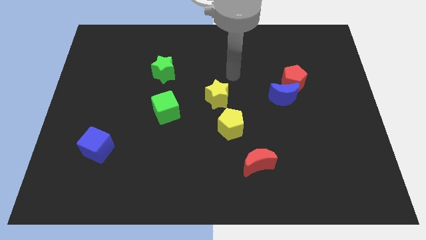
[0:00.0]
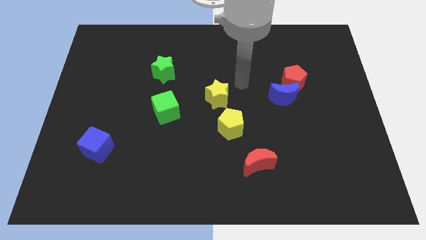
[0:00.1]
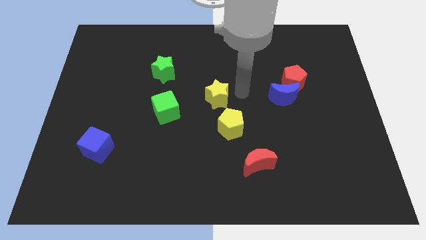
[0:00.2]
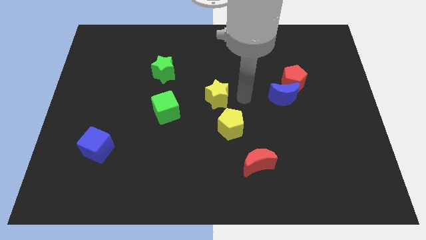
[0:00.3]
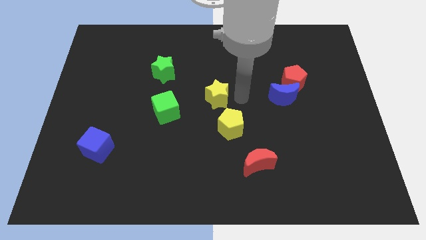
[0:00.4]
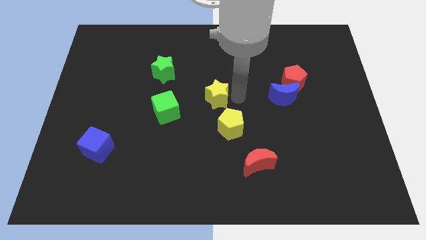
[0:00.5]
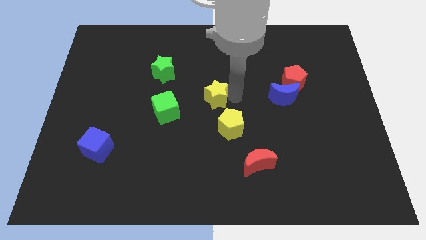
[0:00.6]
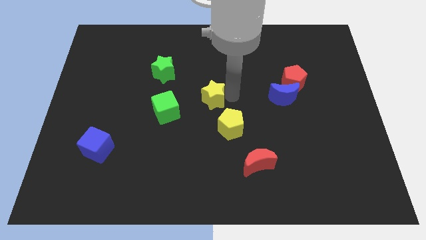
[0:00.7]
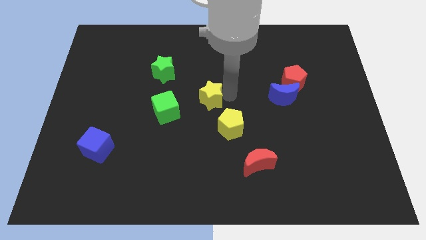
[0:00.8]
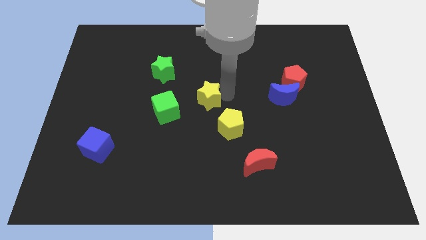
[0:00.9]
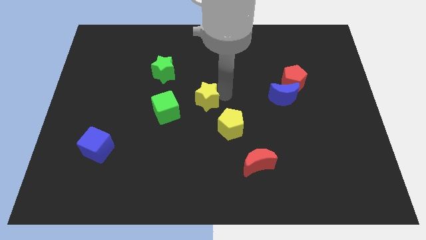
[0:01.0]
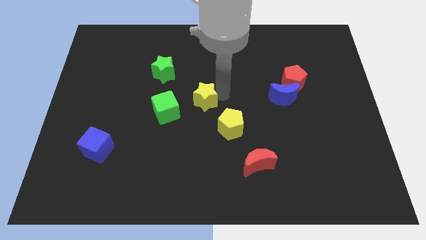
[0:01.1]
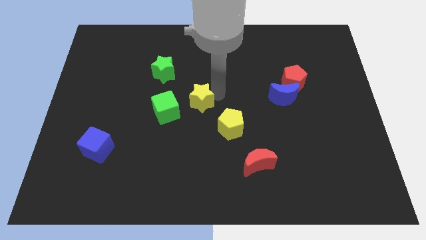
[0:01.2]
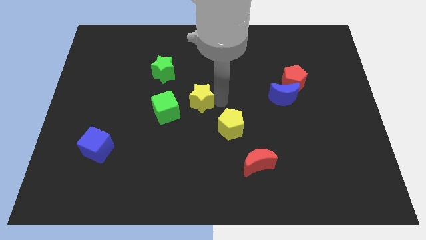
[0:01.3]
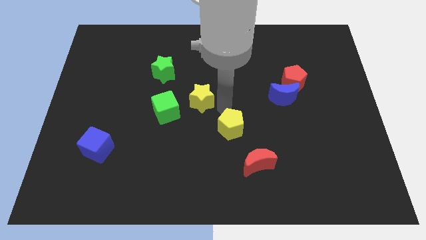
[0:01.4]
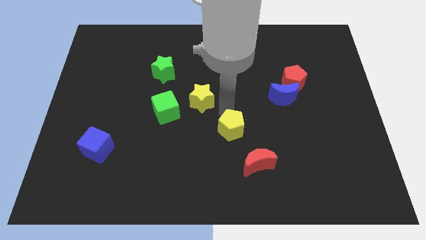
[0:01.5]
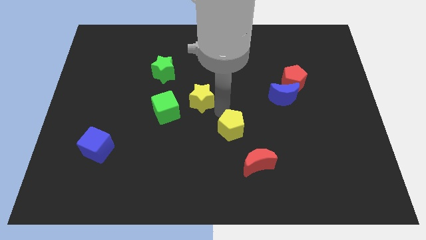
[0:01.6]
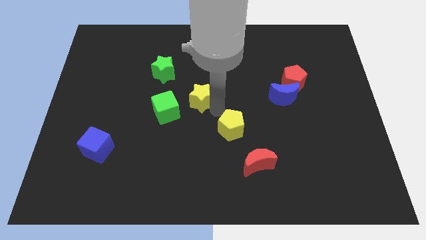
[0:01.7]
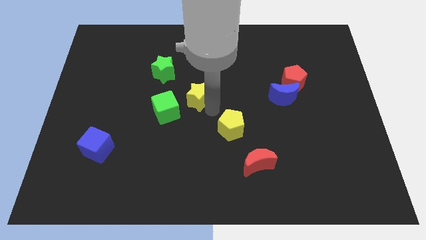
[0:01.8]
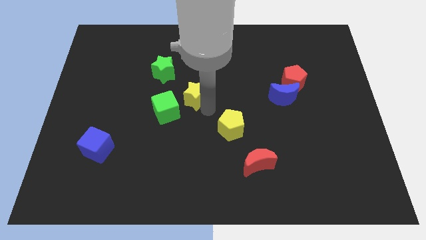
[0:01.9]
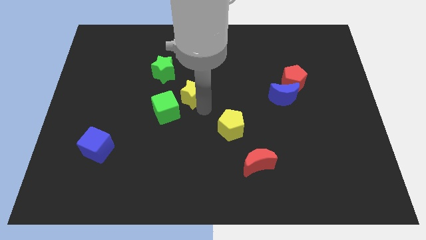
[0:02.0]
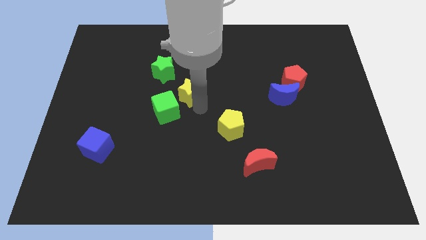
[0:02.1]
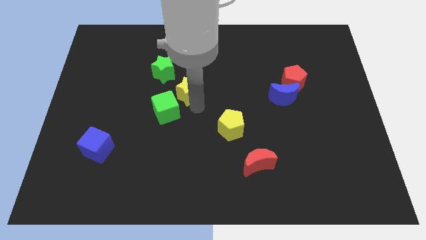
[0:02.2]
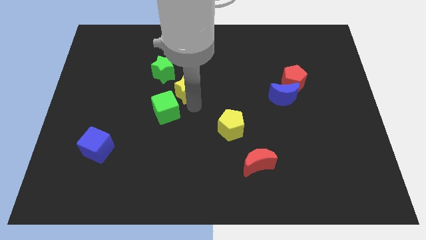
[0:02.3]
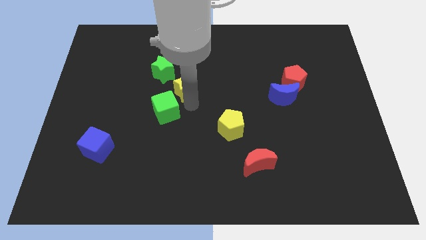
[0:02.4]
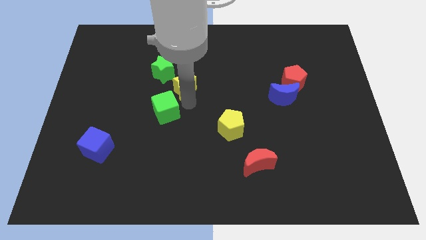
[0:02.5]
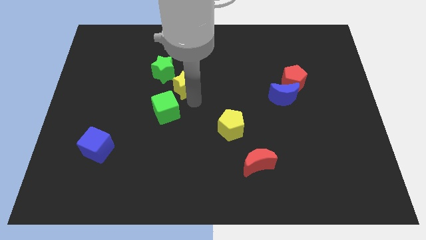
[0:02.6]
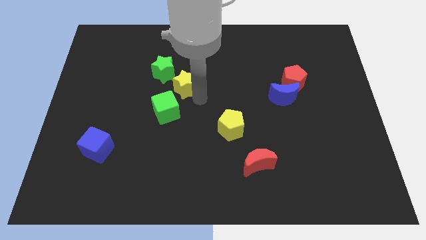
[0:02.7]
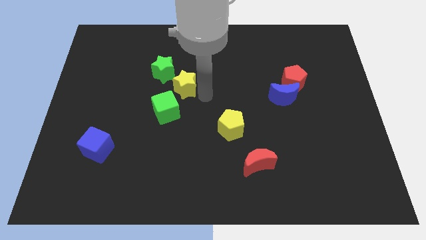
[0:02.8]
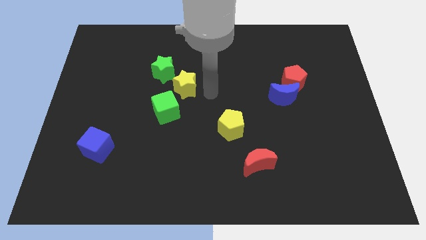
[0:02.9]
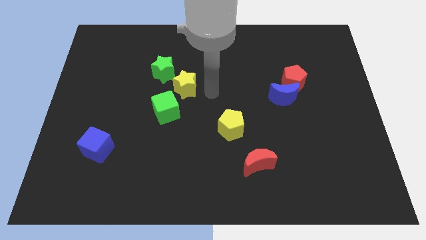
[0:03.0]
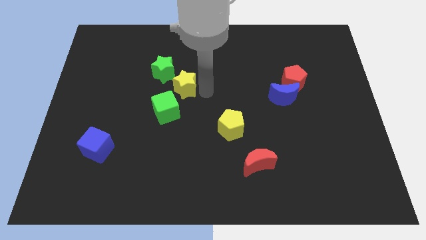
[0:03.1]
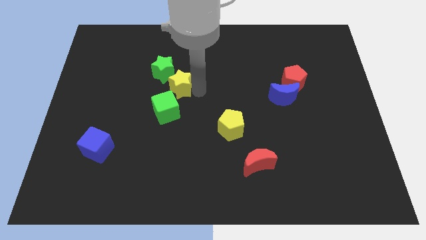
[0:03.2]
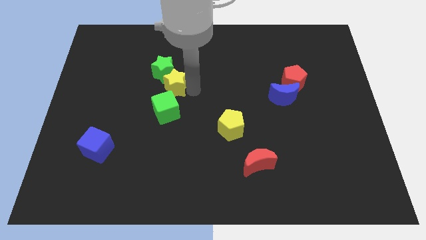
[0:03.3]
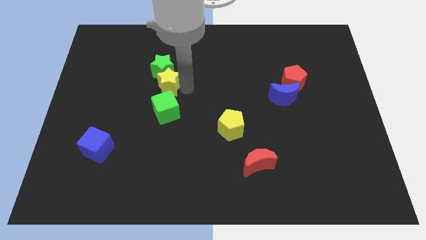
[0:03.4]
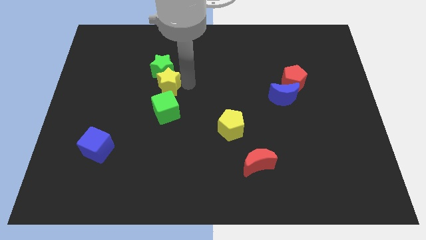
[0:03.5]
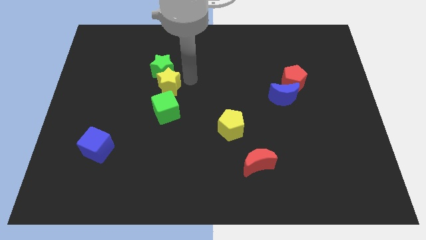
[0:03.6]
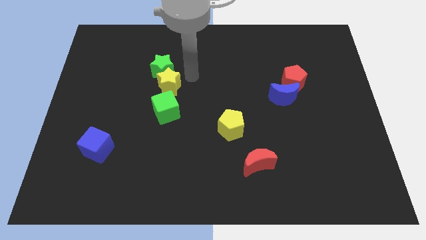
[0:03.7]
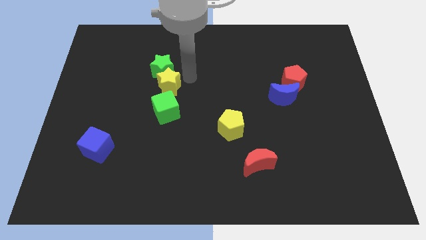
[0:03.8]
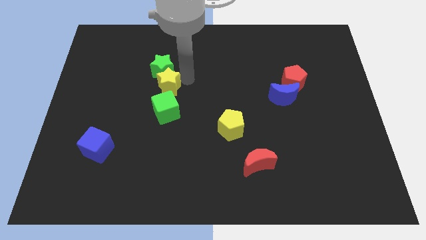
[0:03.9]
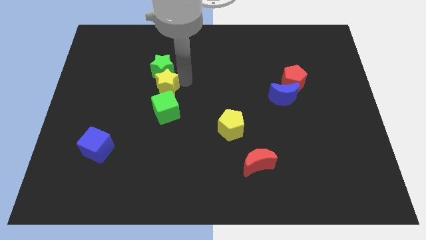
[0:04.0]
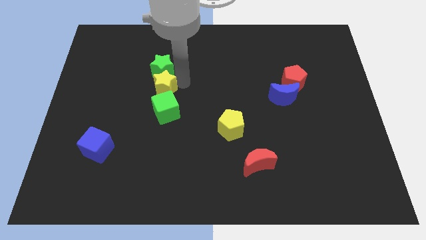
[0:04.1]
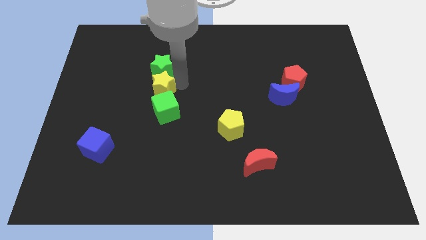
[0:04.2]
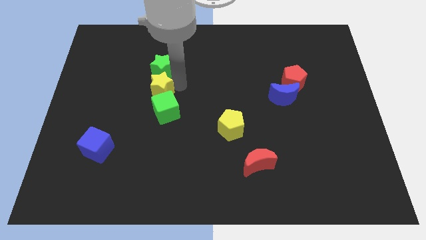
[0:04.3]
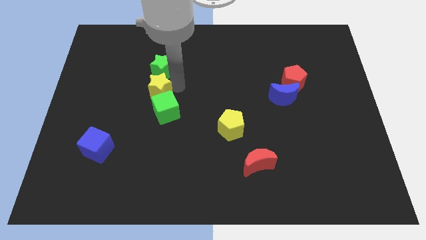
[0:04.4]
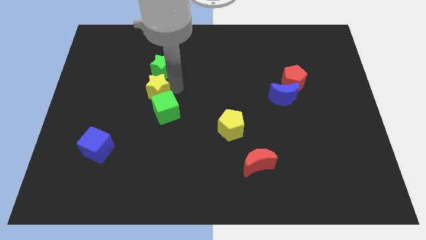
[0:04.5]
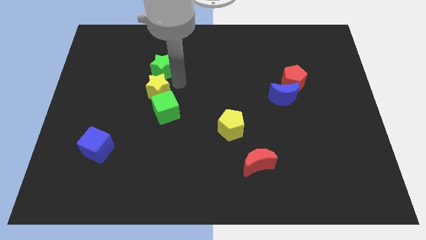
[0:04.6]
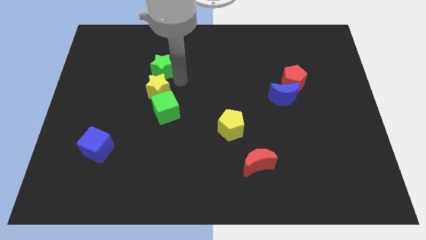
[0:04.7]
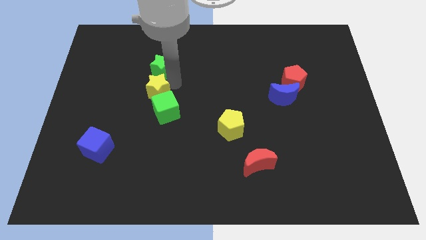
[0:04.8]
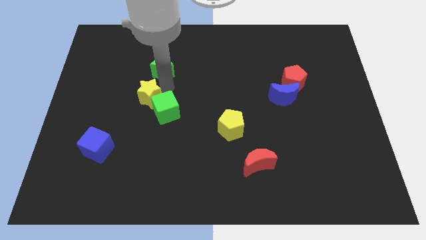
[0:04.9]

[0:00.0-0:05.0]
move the yellow star to the left of the green cube

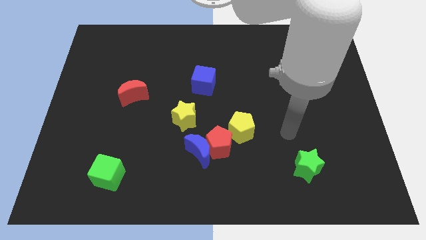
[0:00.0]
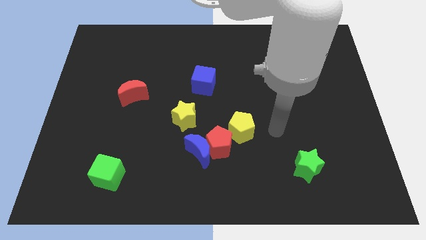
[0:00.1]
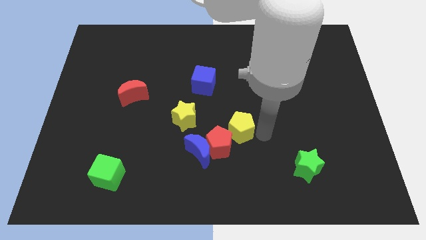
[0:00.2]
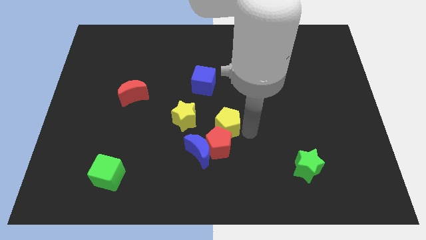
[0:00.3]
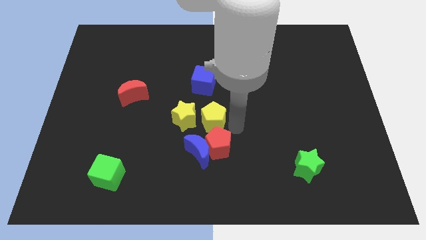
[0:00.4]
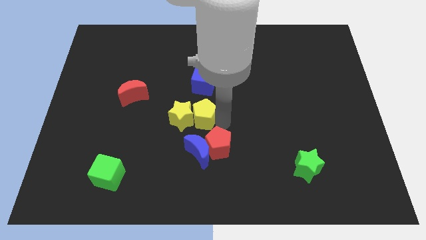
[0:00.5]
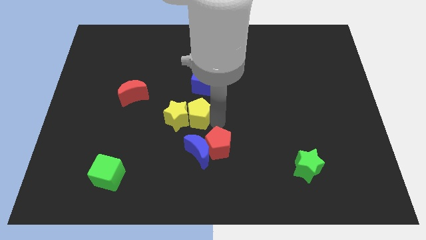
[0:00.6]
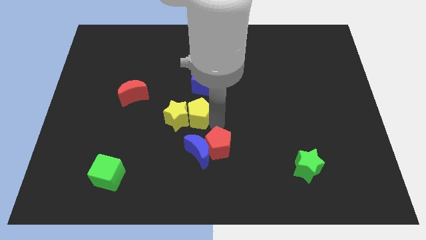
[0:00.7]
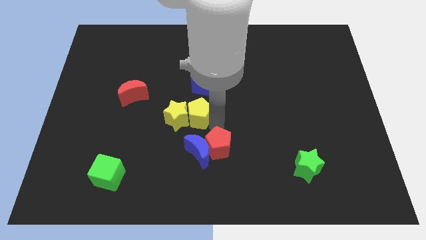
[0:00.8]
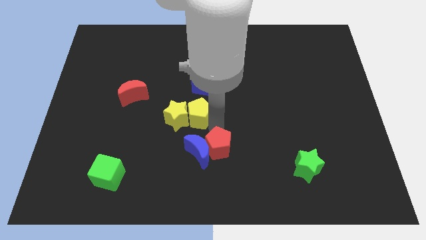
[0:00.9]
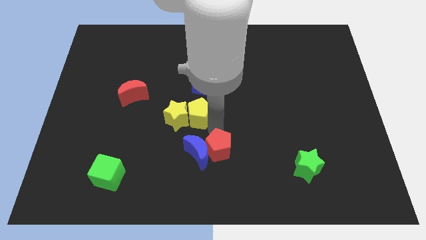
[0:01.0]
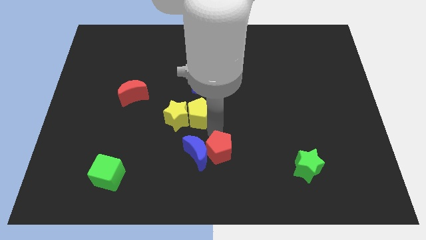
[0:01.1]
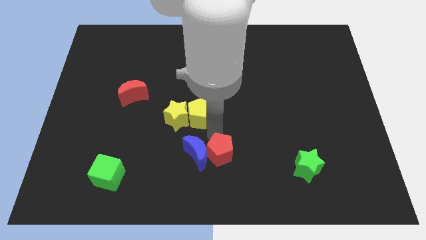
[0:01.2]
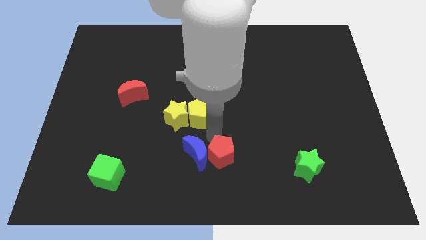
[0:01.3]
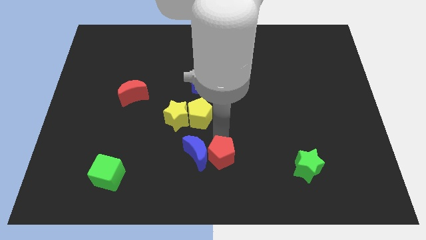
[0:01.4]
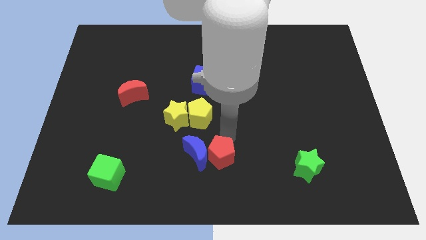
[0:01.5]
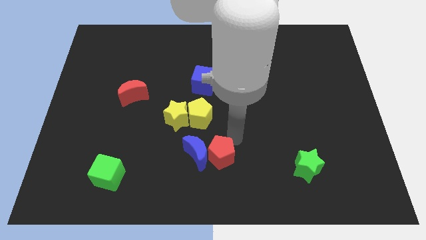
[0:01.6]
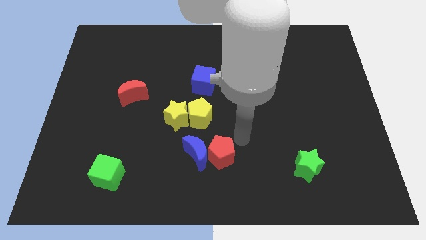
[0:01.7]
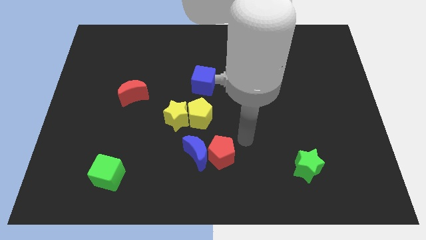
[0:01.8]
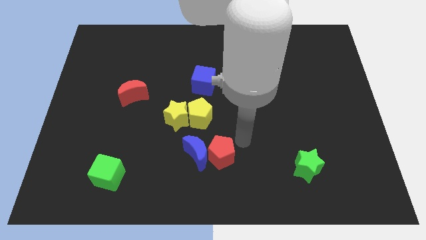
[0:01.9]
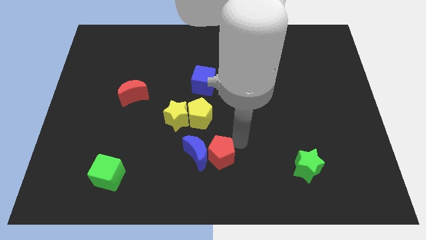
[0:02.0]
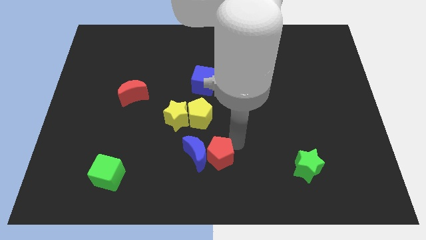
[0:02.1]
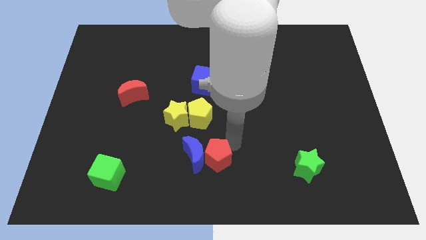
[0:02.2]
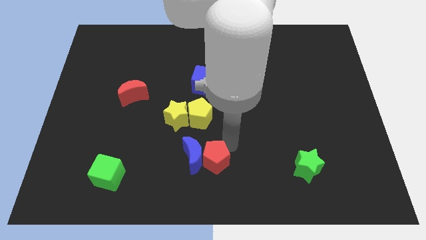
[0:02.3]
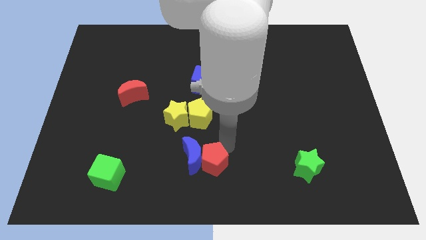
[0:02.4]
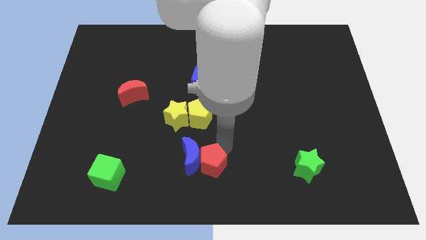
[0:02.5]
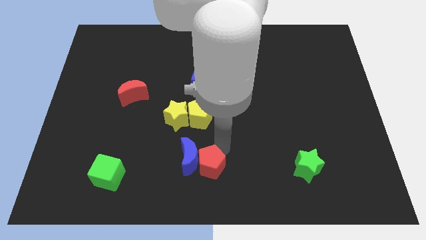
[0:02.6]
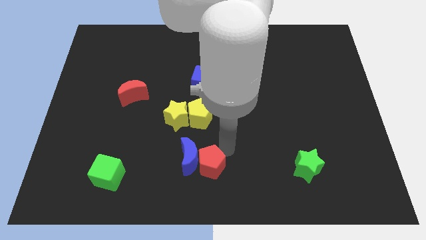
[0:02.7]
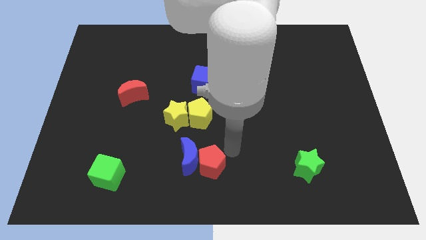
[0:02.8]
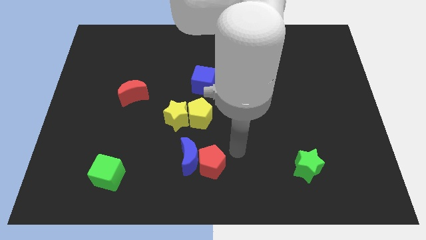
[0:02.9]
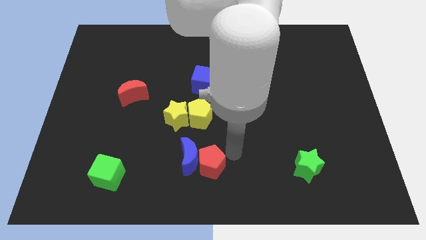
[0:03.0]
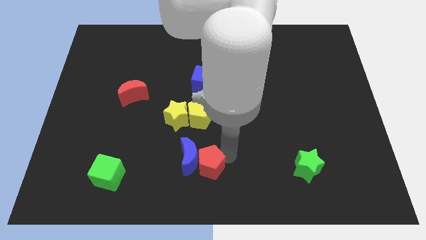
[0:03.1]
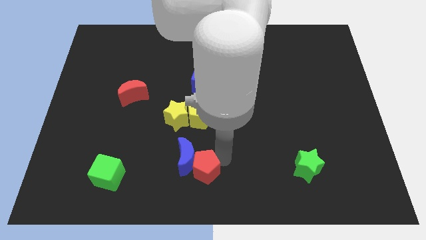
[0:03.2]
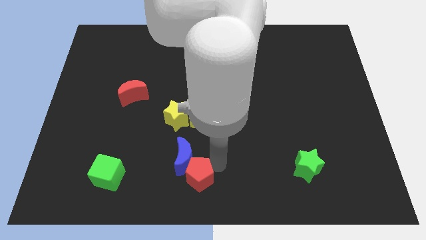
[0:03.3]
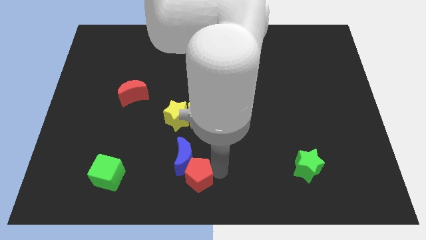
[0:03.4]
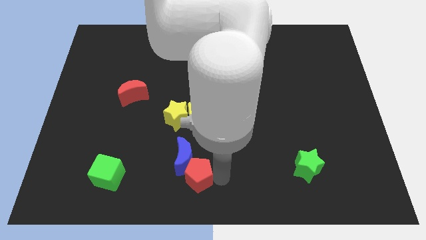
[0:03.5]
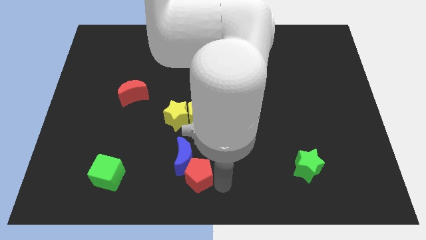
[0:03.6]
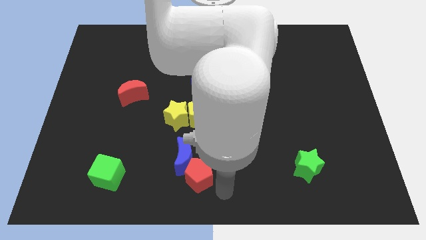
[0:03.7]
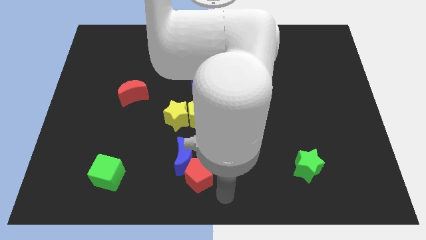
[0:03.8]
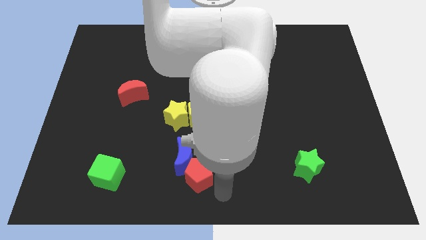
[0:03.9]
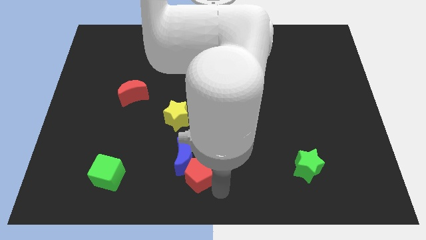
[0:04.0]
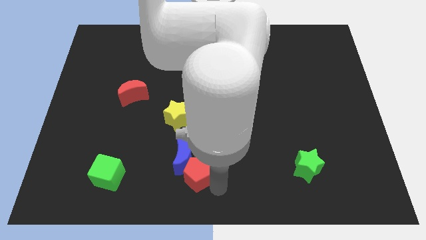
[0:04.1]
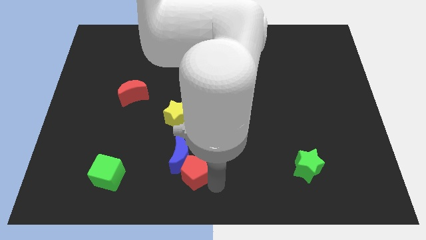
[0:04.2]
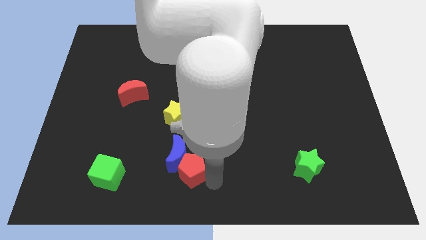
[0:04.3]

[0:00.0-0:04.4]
put the red pentagon below the yellow star
